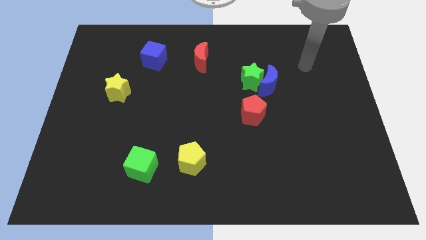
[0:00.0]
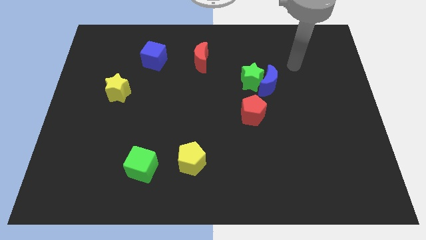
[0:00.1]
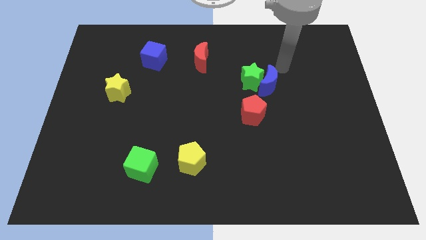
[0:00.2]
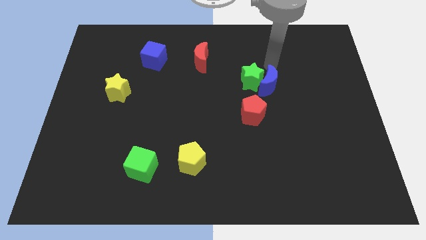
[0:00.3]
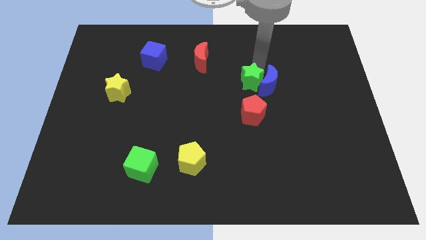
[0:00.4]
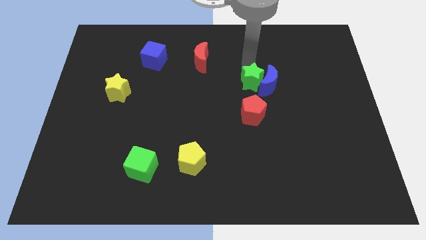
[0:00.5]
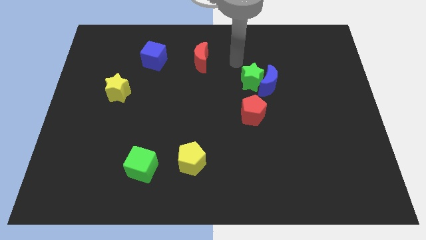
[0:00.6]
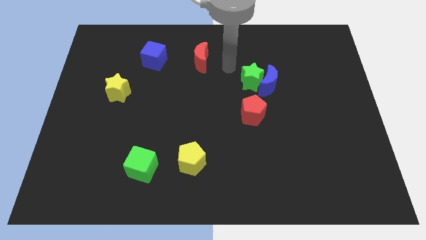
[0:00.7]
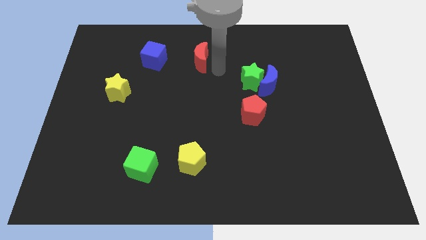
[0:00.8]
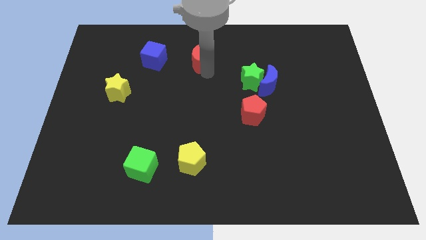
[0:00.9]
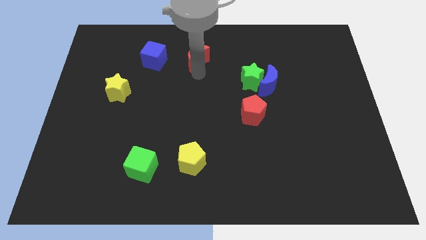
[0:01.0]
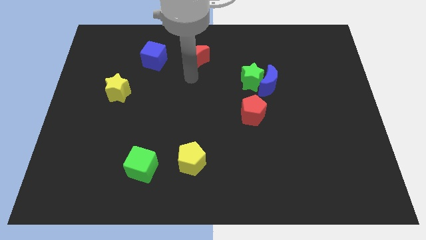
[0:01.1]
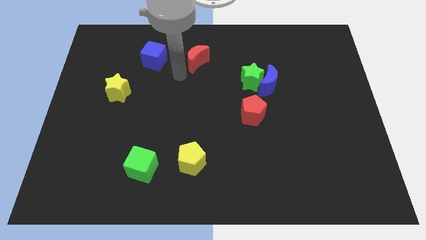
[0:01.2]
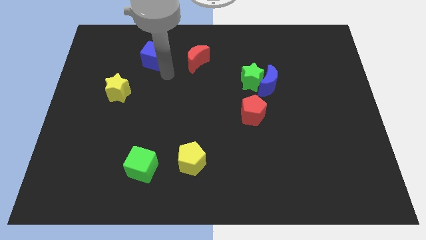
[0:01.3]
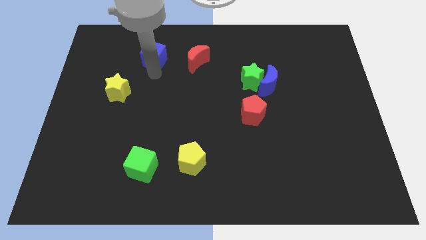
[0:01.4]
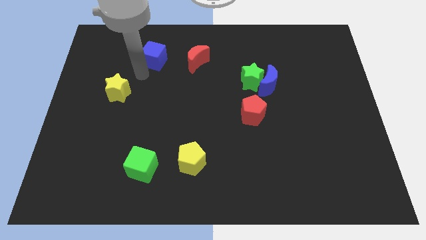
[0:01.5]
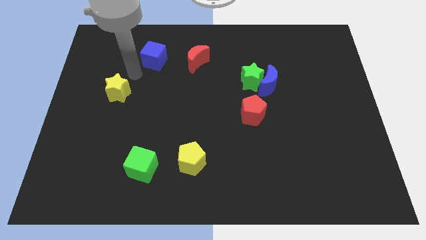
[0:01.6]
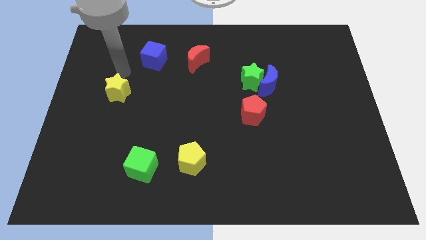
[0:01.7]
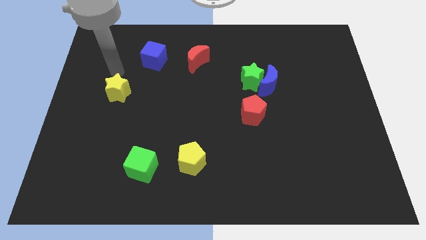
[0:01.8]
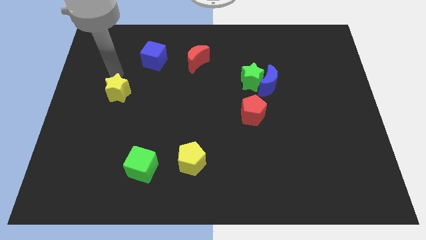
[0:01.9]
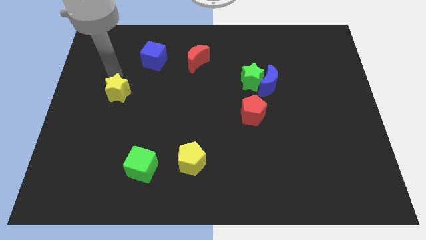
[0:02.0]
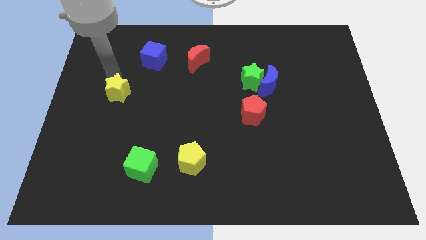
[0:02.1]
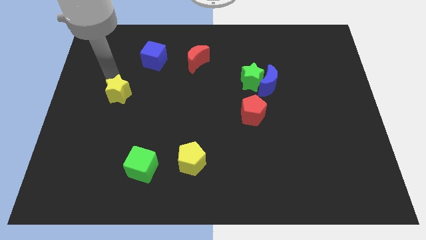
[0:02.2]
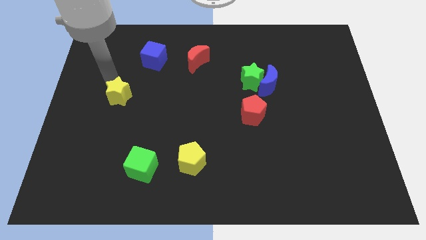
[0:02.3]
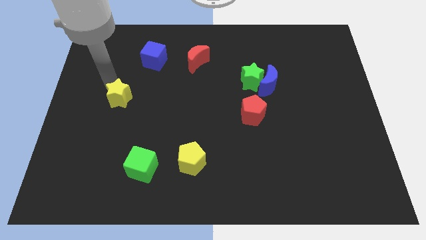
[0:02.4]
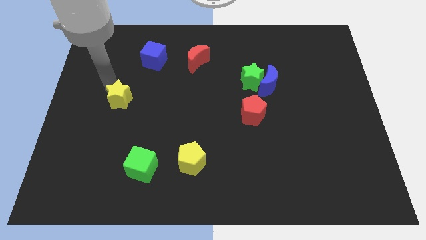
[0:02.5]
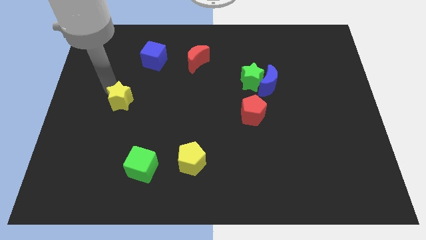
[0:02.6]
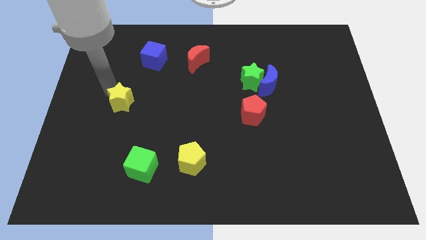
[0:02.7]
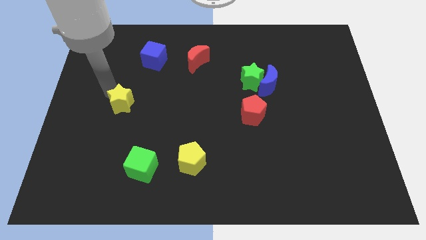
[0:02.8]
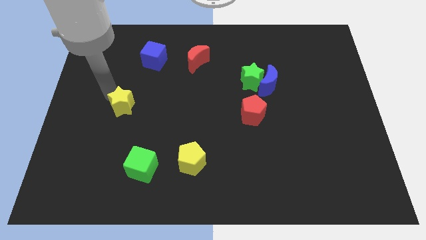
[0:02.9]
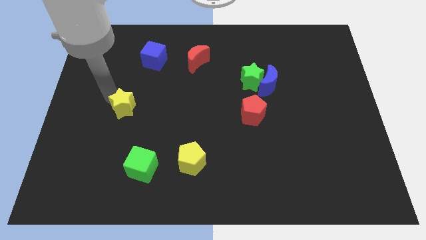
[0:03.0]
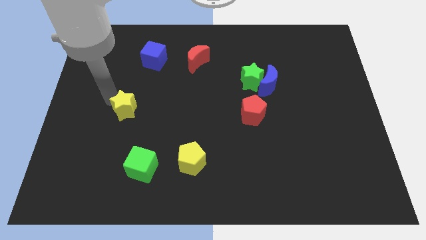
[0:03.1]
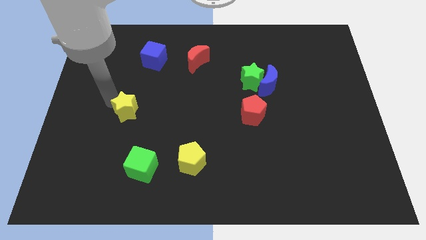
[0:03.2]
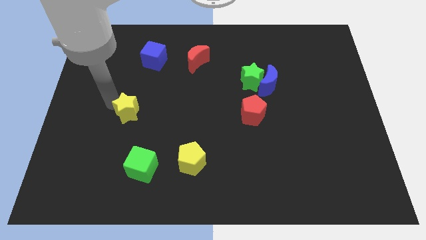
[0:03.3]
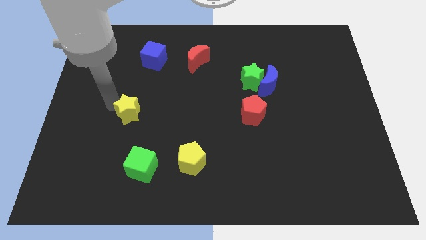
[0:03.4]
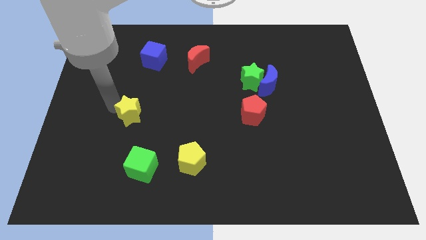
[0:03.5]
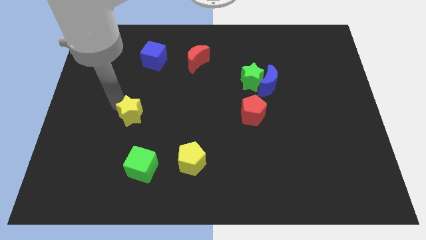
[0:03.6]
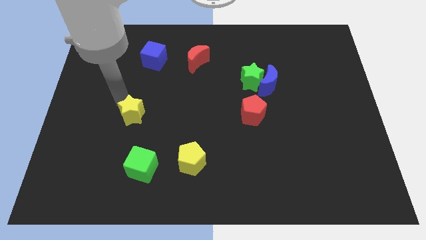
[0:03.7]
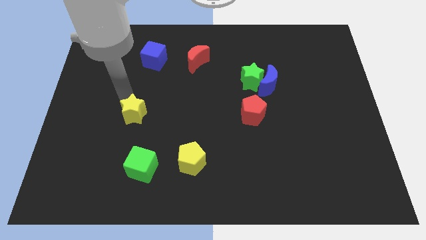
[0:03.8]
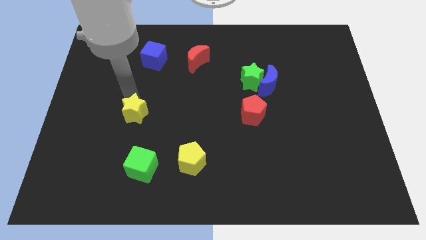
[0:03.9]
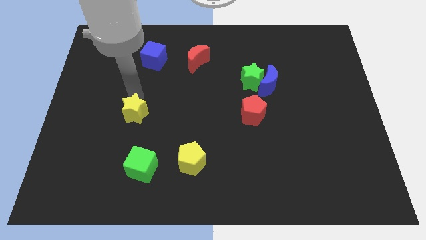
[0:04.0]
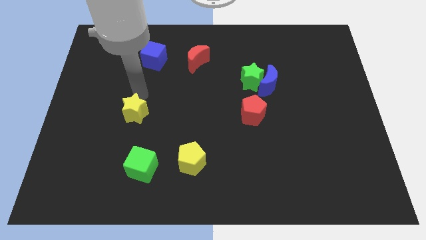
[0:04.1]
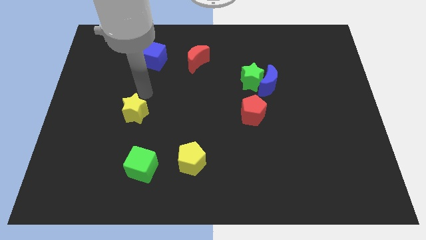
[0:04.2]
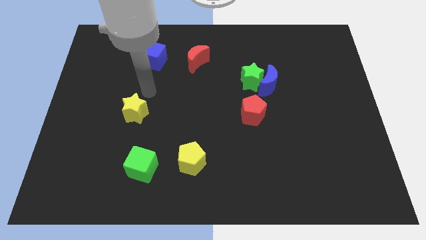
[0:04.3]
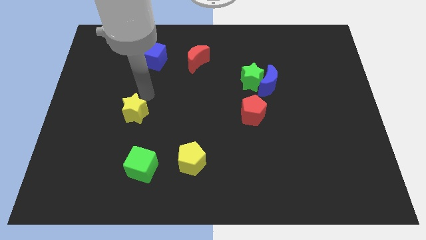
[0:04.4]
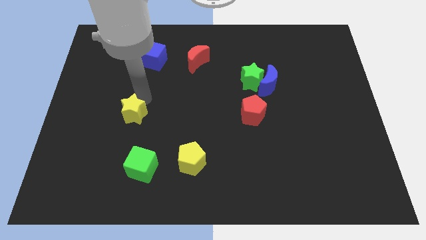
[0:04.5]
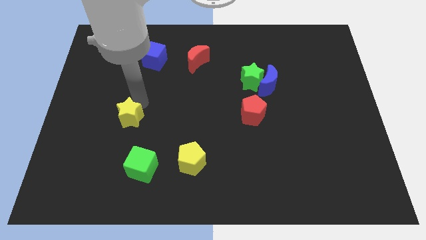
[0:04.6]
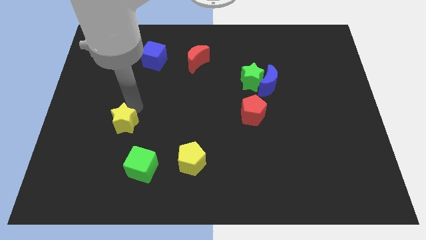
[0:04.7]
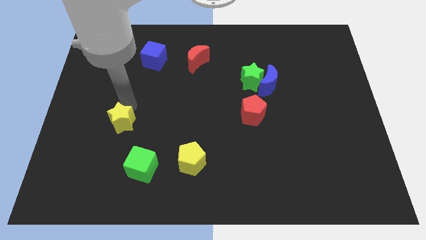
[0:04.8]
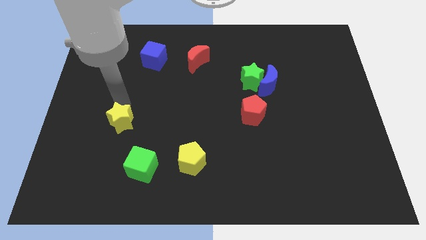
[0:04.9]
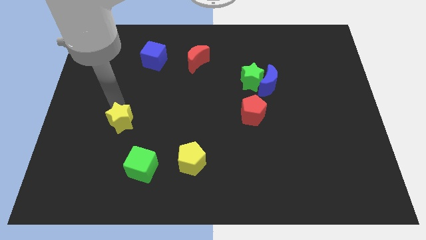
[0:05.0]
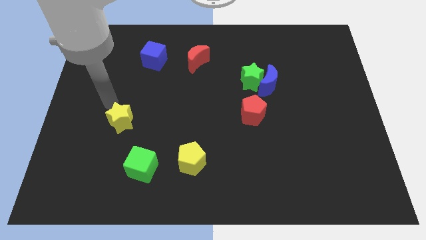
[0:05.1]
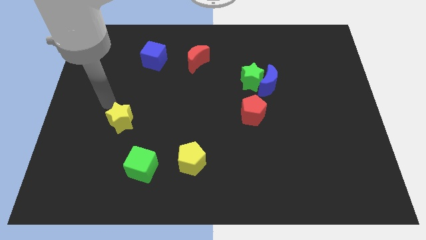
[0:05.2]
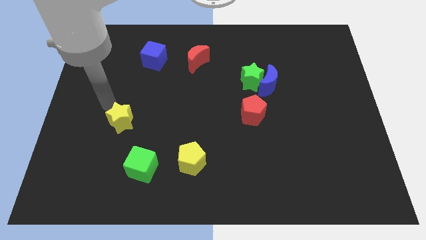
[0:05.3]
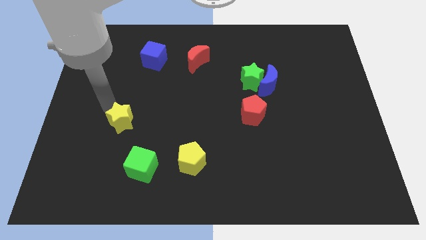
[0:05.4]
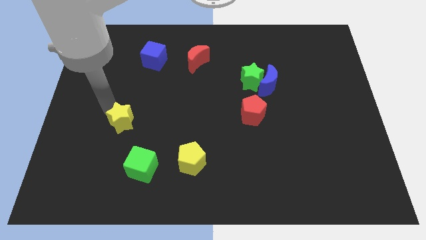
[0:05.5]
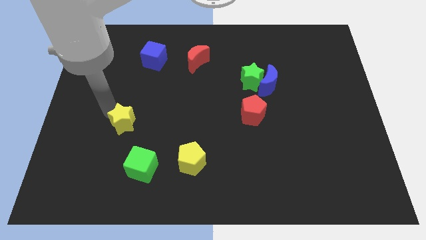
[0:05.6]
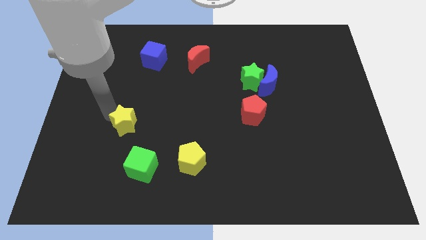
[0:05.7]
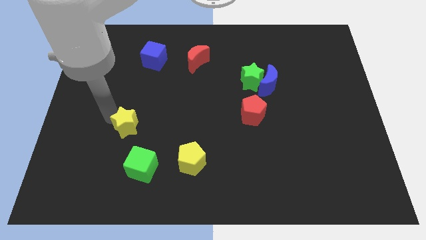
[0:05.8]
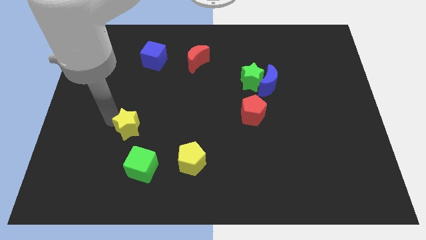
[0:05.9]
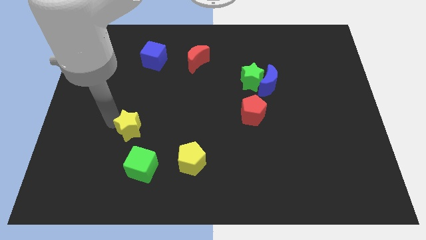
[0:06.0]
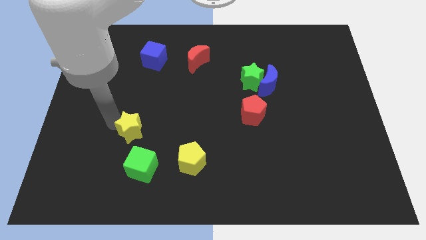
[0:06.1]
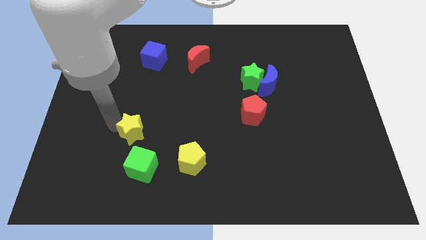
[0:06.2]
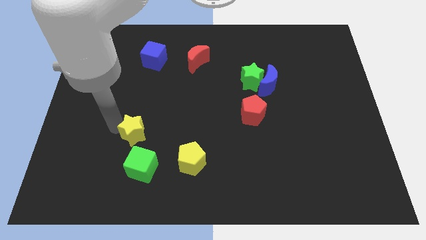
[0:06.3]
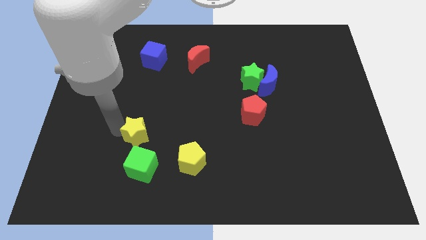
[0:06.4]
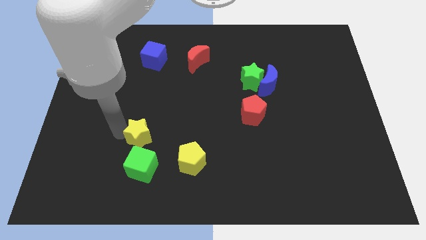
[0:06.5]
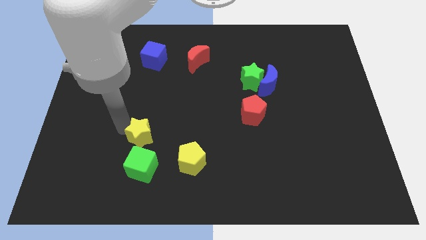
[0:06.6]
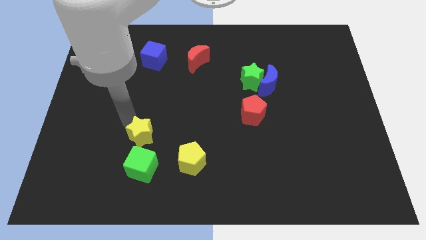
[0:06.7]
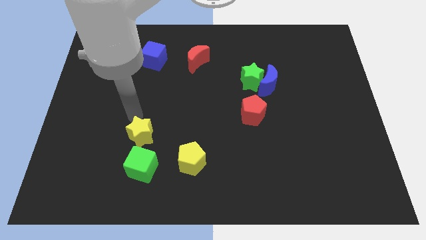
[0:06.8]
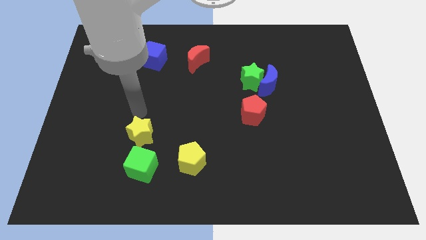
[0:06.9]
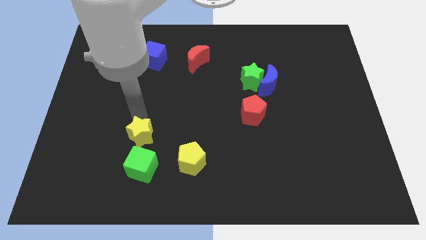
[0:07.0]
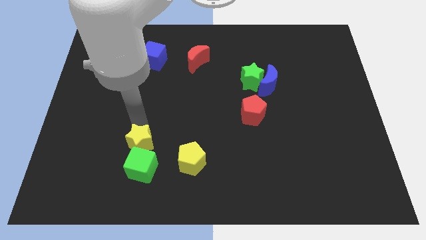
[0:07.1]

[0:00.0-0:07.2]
push the yellow star to the green cube
